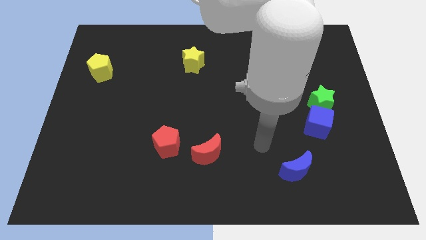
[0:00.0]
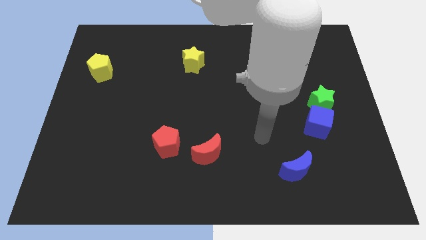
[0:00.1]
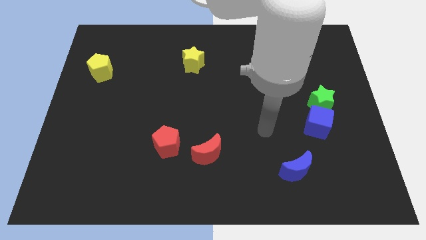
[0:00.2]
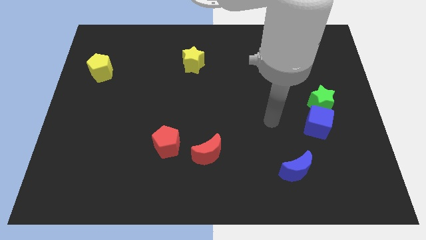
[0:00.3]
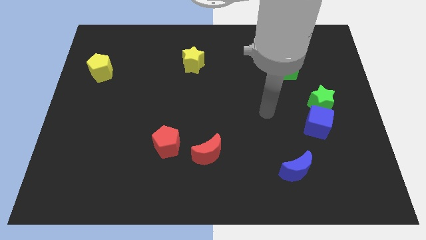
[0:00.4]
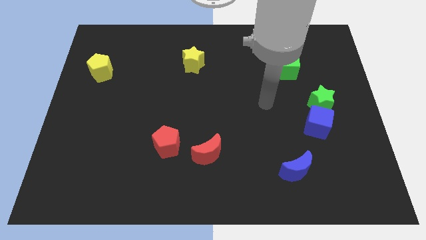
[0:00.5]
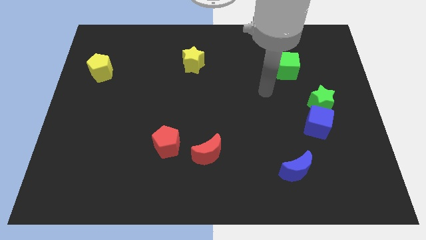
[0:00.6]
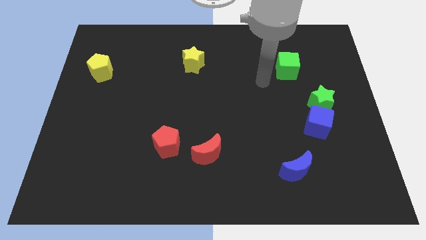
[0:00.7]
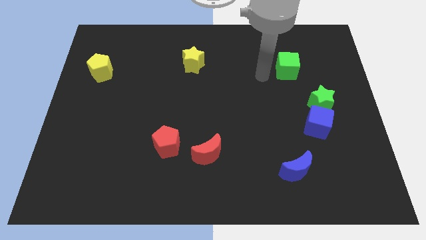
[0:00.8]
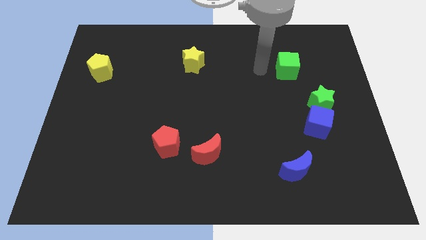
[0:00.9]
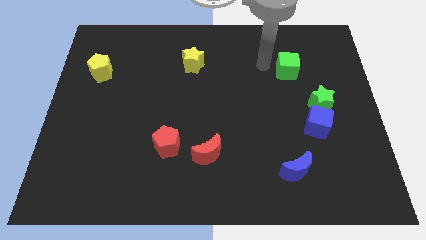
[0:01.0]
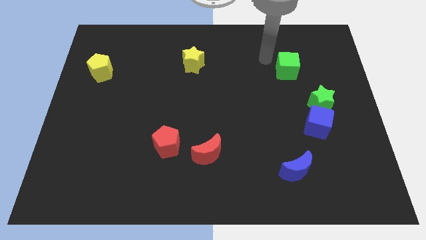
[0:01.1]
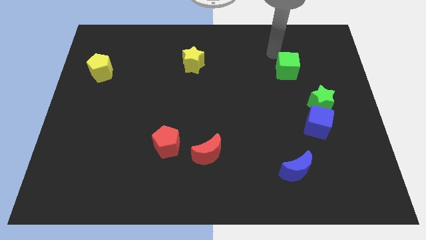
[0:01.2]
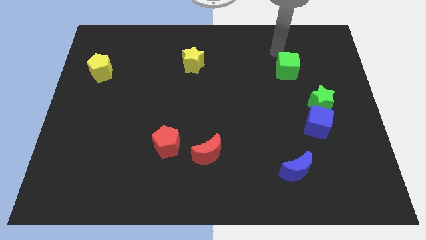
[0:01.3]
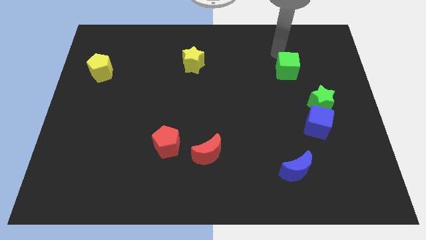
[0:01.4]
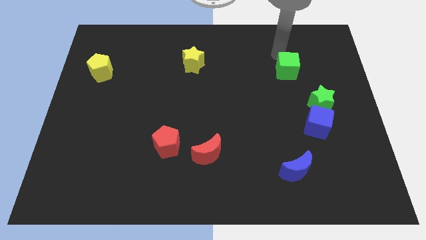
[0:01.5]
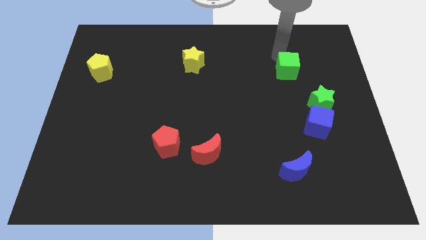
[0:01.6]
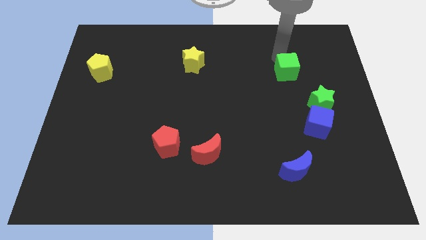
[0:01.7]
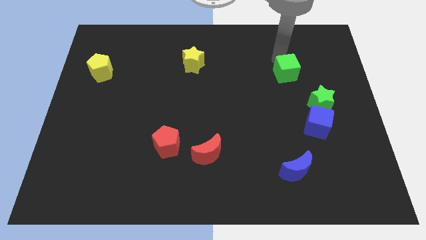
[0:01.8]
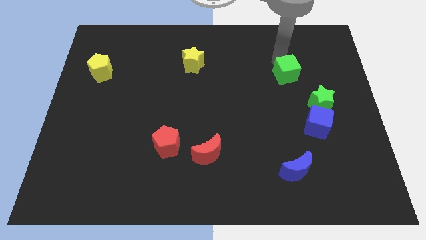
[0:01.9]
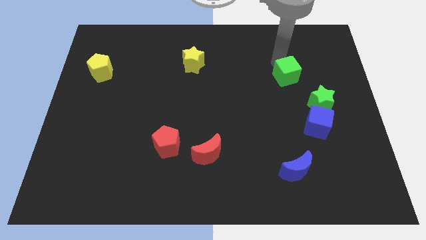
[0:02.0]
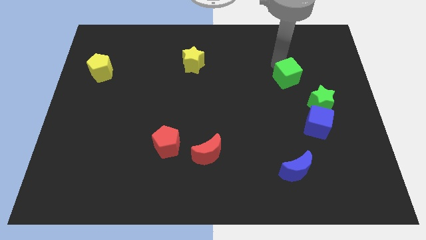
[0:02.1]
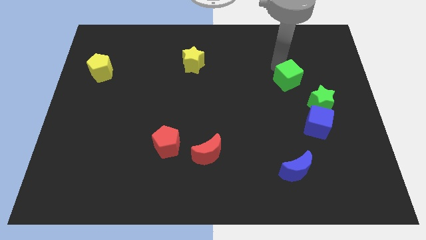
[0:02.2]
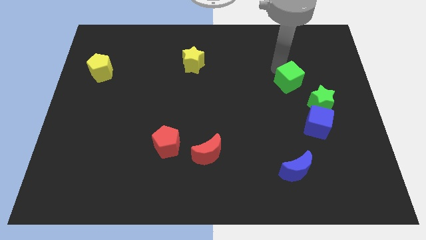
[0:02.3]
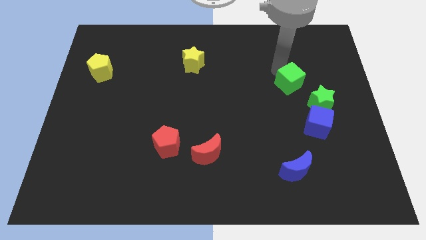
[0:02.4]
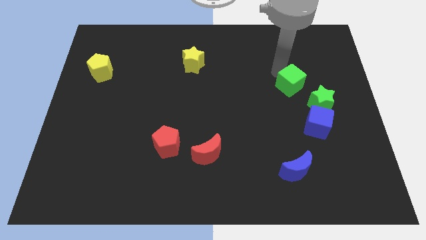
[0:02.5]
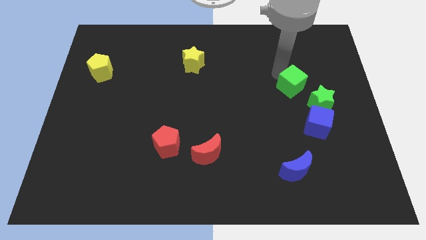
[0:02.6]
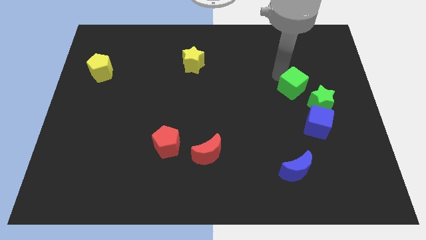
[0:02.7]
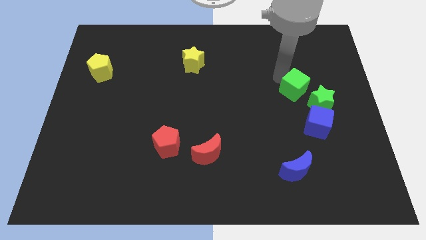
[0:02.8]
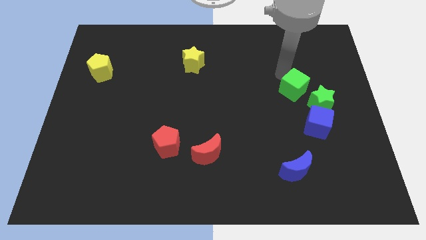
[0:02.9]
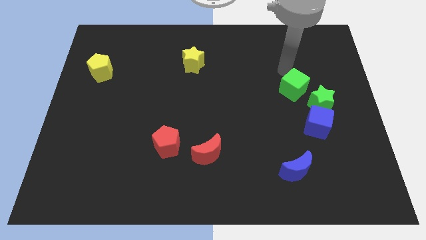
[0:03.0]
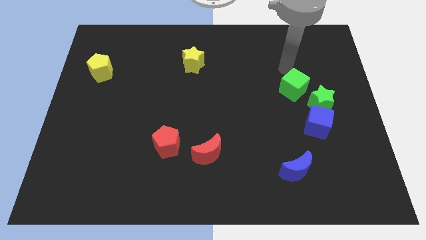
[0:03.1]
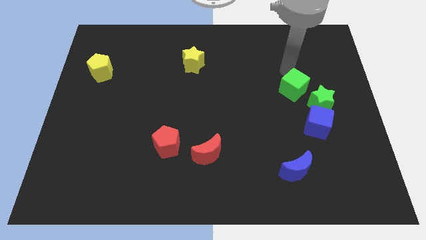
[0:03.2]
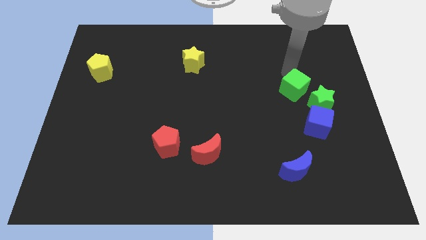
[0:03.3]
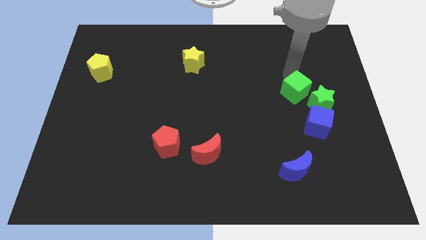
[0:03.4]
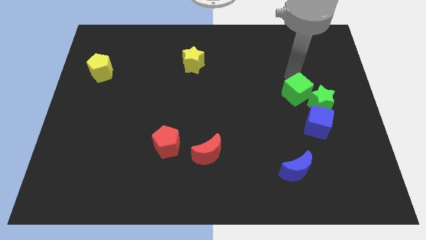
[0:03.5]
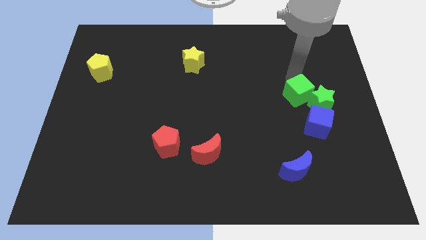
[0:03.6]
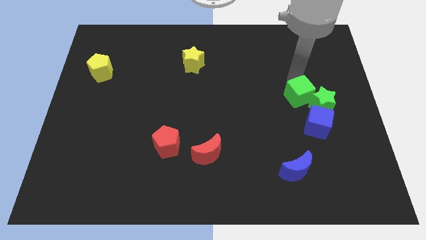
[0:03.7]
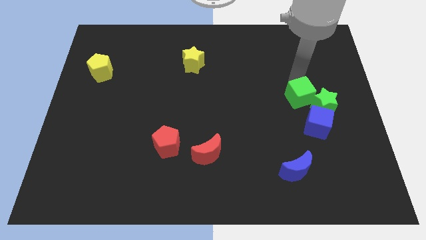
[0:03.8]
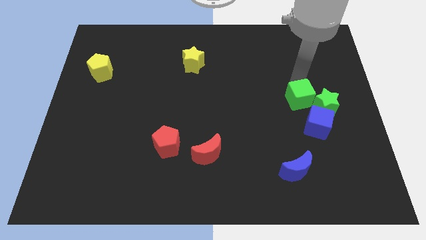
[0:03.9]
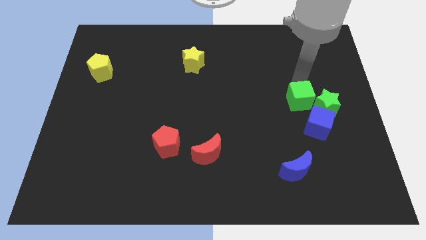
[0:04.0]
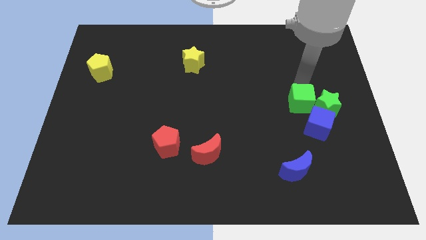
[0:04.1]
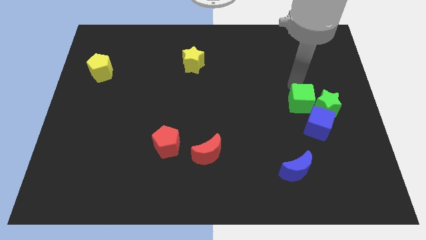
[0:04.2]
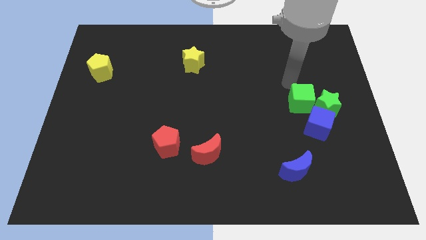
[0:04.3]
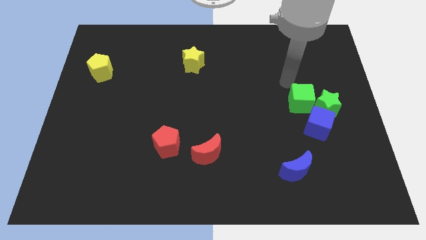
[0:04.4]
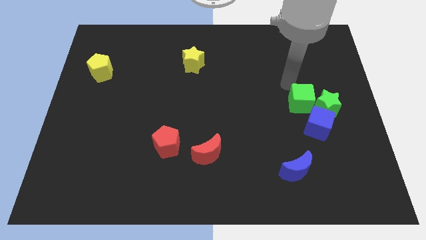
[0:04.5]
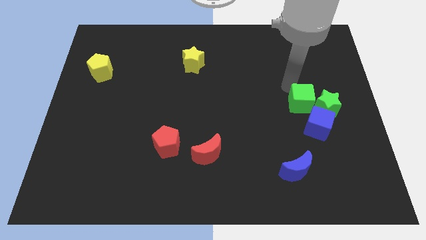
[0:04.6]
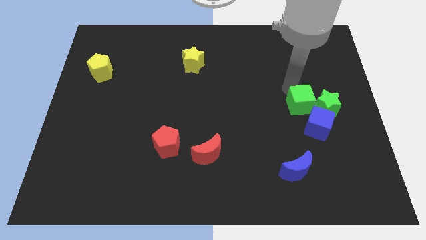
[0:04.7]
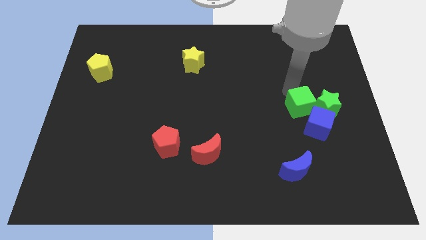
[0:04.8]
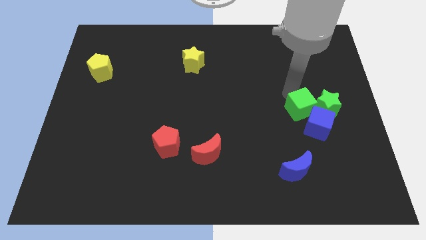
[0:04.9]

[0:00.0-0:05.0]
slide the green cube close to the blue cube

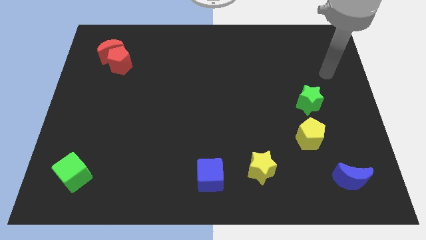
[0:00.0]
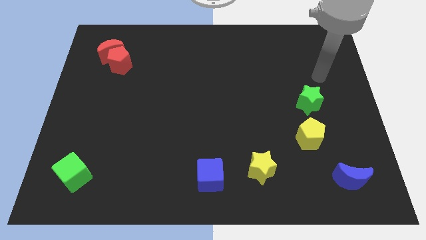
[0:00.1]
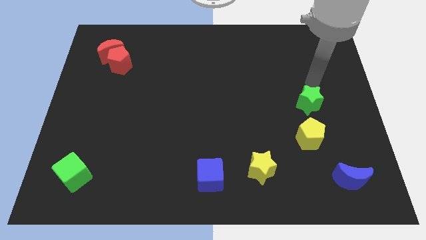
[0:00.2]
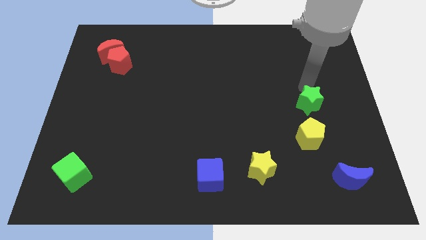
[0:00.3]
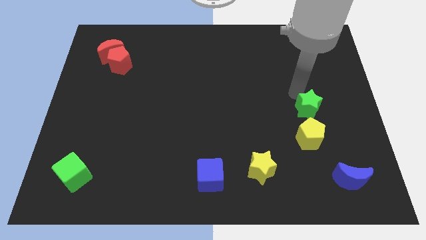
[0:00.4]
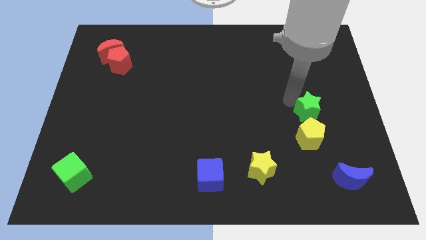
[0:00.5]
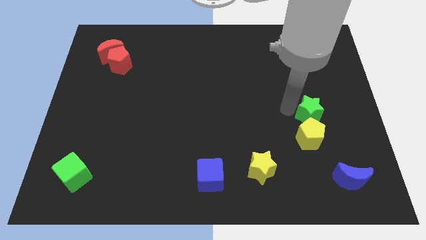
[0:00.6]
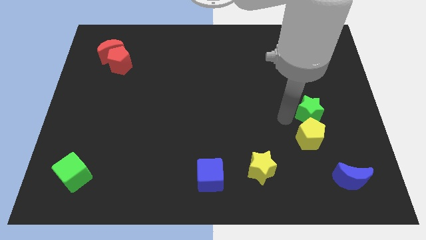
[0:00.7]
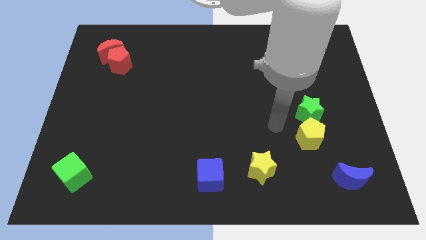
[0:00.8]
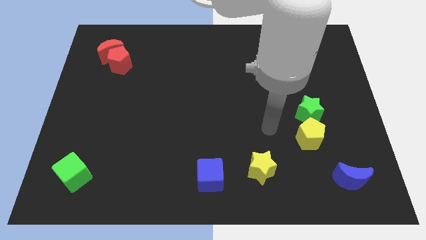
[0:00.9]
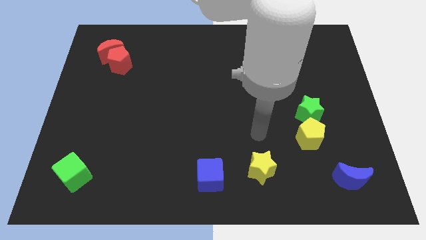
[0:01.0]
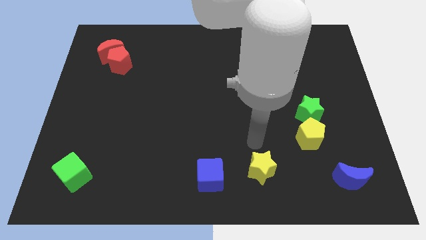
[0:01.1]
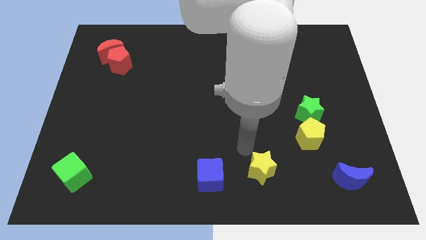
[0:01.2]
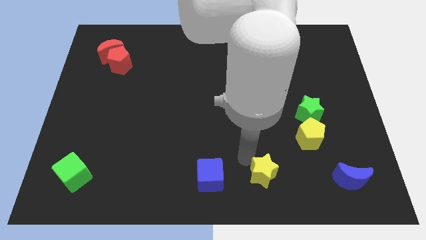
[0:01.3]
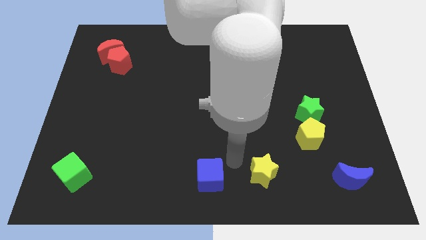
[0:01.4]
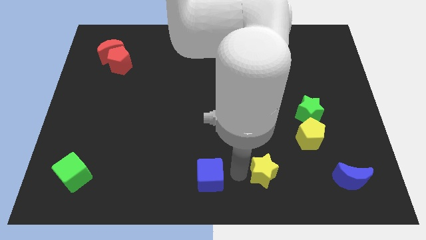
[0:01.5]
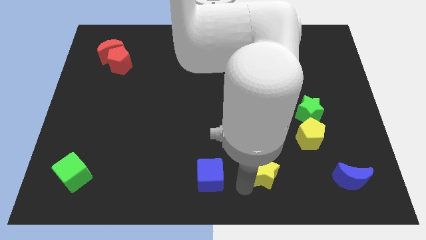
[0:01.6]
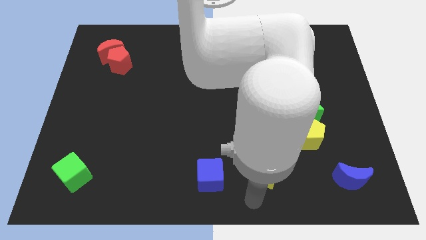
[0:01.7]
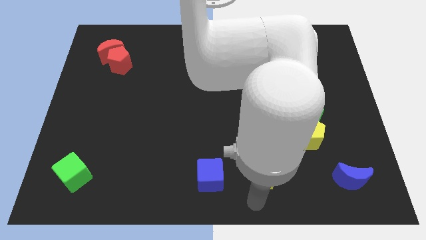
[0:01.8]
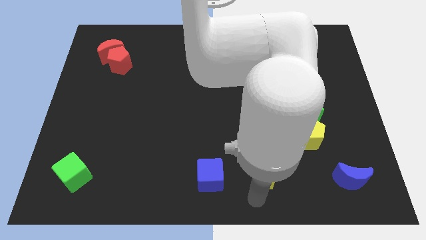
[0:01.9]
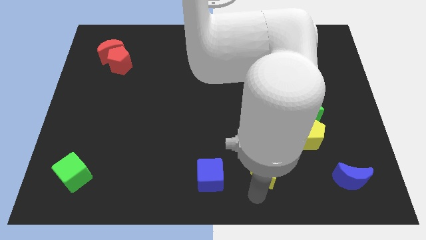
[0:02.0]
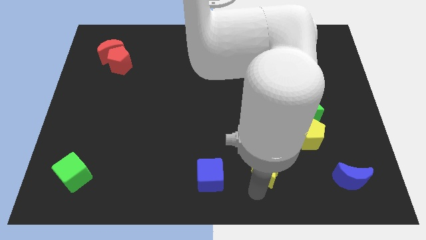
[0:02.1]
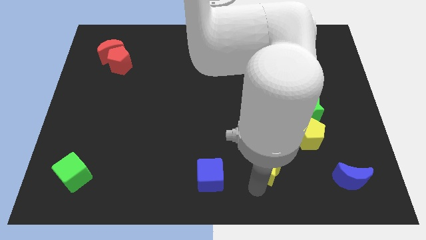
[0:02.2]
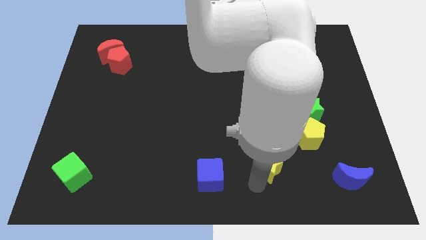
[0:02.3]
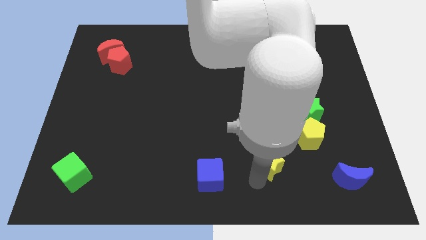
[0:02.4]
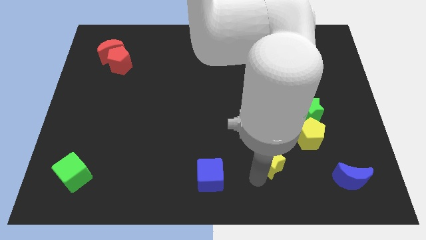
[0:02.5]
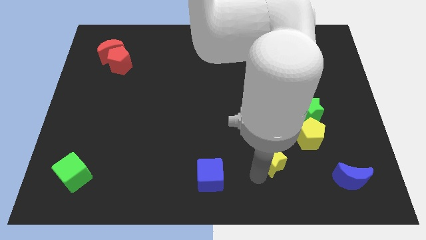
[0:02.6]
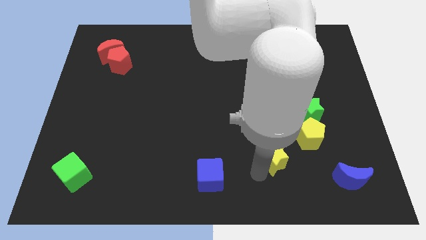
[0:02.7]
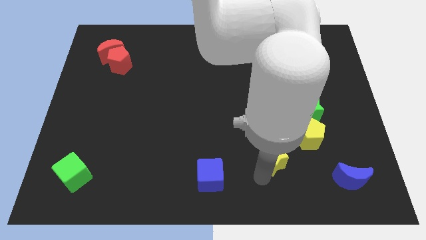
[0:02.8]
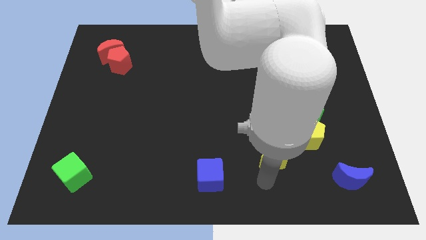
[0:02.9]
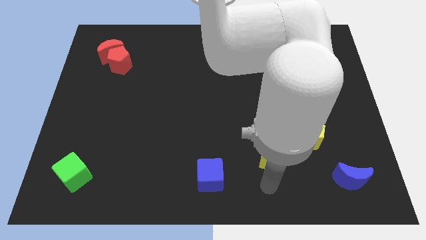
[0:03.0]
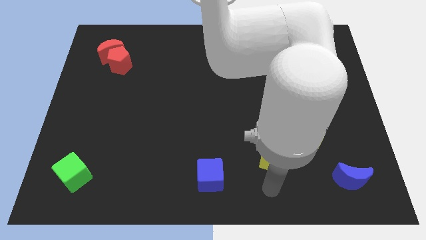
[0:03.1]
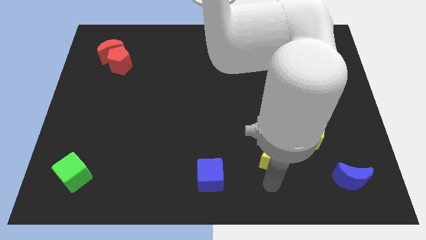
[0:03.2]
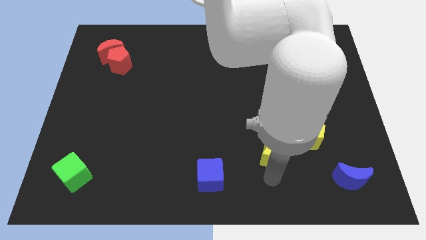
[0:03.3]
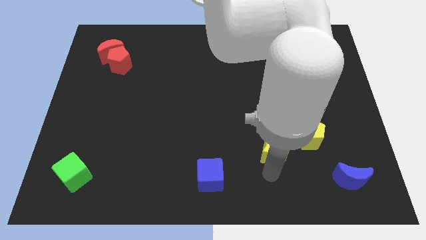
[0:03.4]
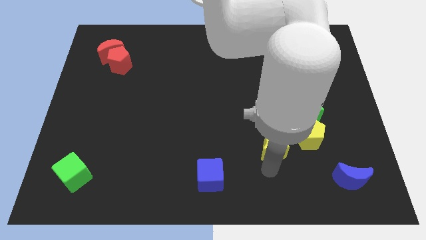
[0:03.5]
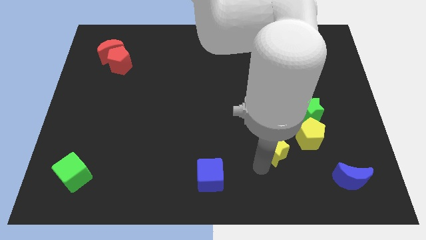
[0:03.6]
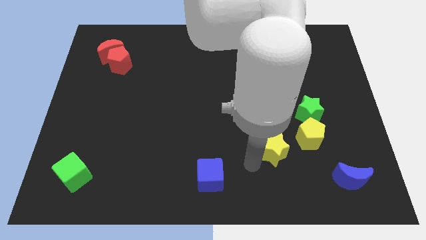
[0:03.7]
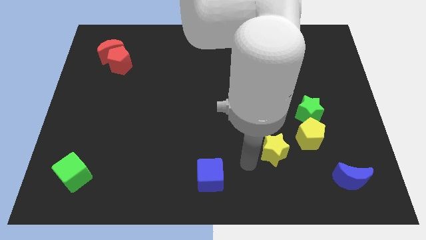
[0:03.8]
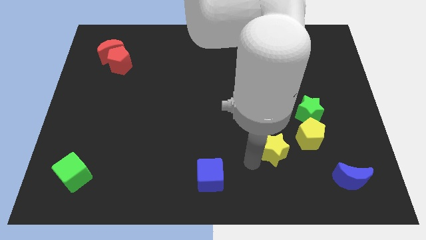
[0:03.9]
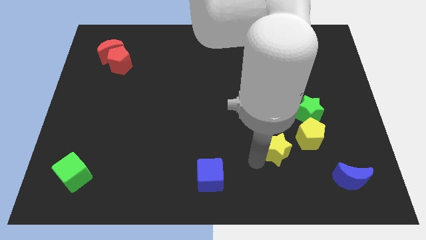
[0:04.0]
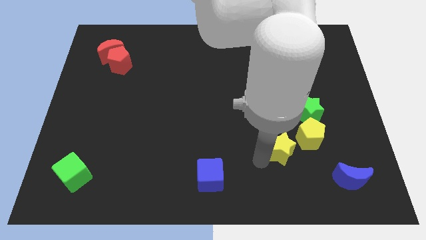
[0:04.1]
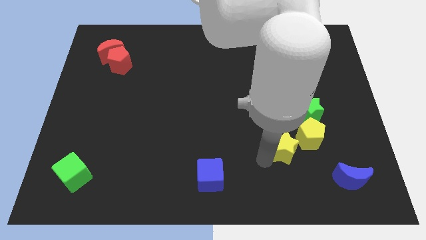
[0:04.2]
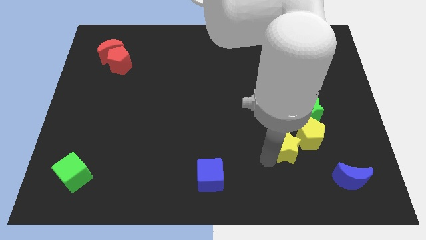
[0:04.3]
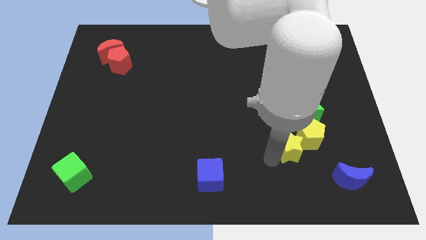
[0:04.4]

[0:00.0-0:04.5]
push the yellow star to the yellow pentagon
